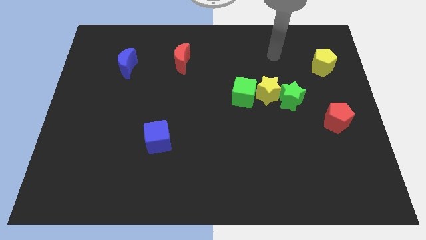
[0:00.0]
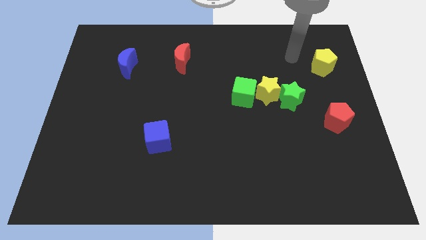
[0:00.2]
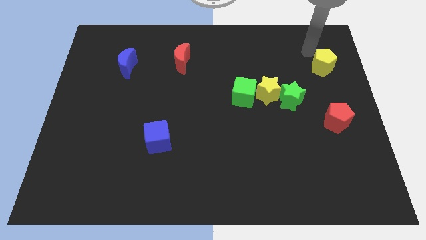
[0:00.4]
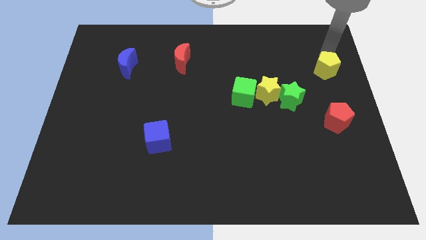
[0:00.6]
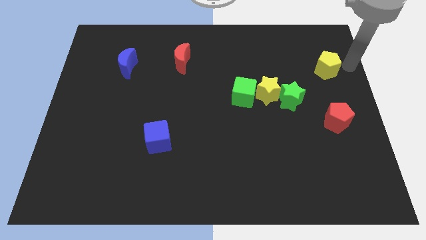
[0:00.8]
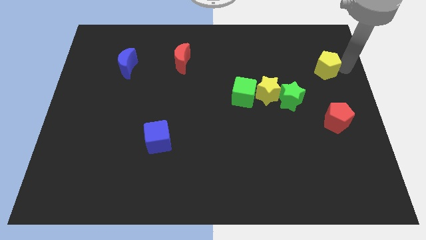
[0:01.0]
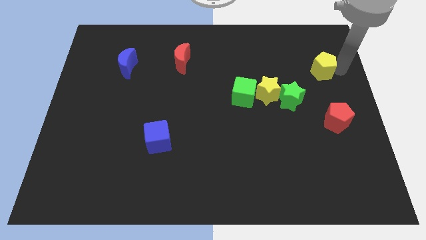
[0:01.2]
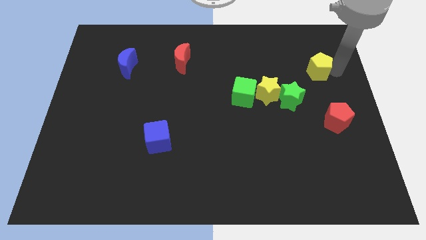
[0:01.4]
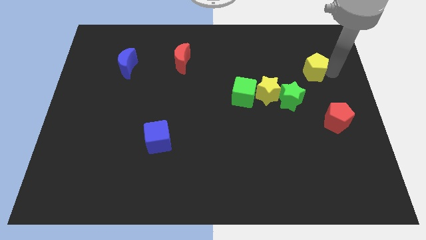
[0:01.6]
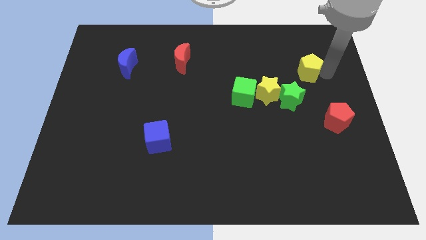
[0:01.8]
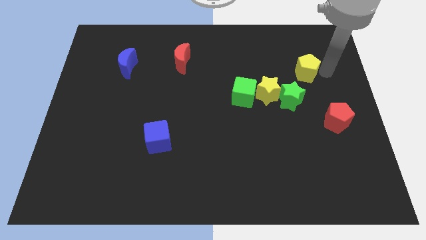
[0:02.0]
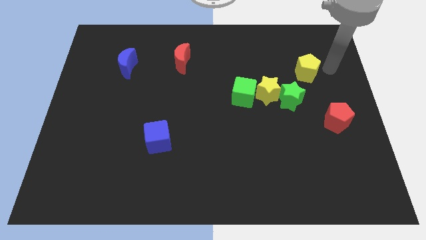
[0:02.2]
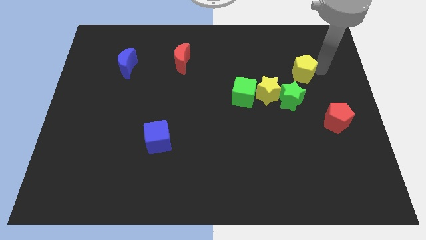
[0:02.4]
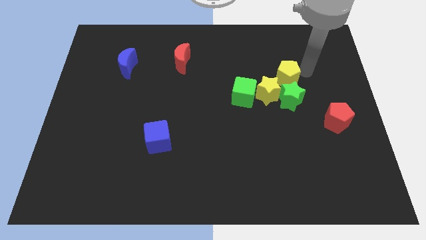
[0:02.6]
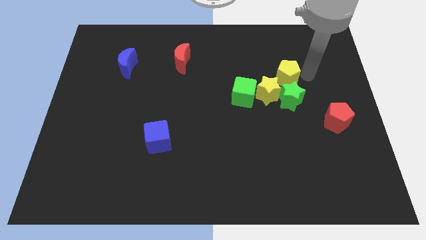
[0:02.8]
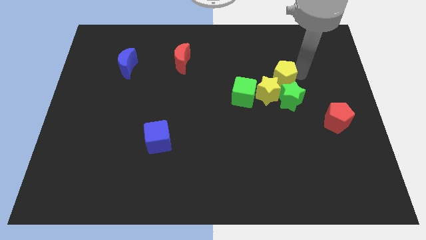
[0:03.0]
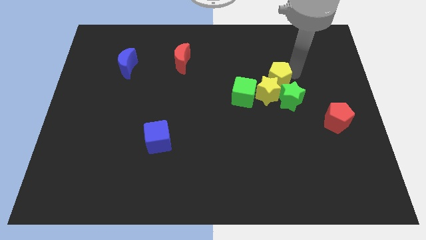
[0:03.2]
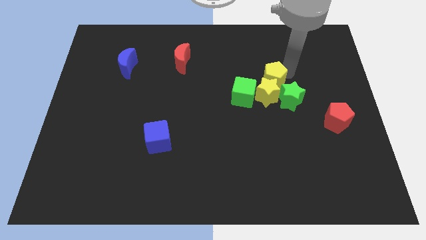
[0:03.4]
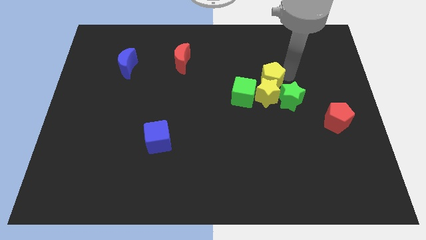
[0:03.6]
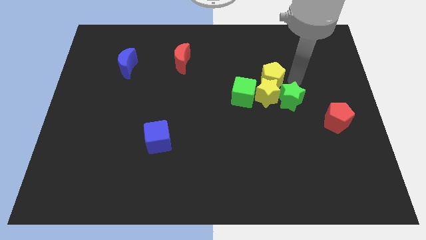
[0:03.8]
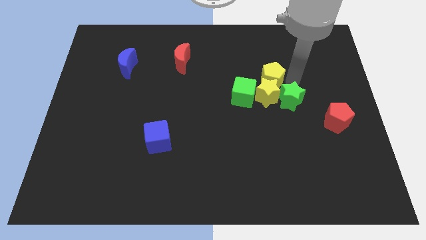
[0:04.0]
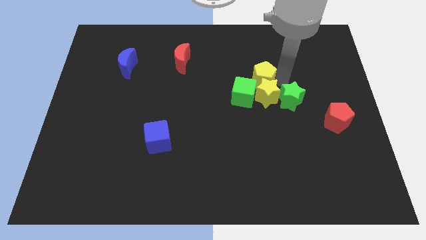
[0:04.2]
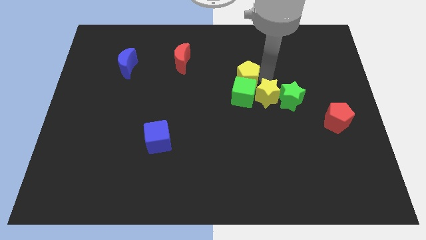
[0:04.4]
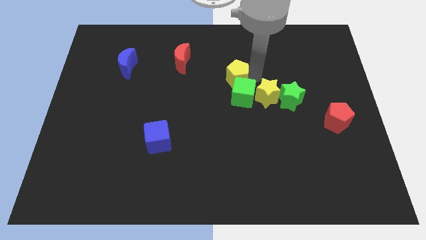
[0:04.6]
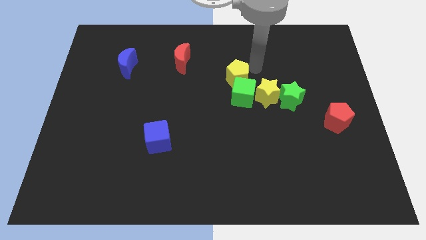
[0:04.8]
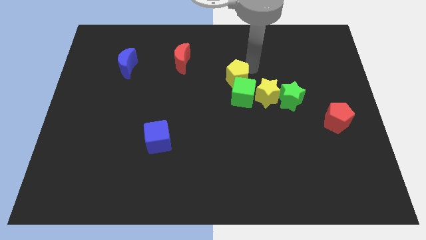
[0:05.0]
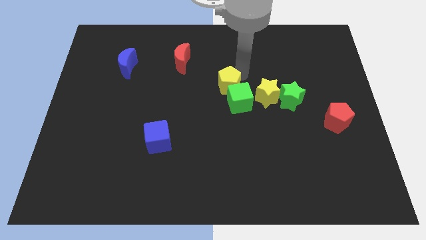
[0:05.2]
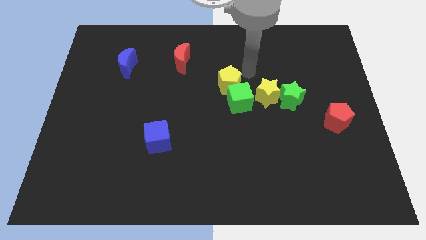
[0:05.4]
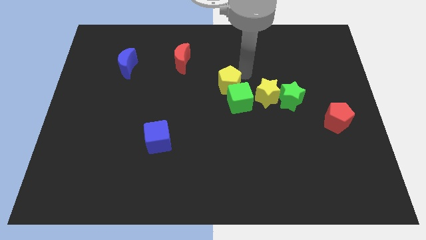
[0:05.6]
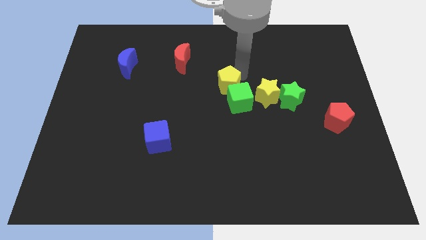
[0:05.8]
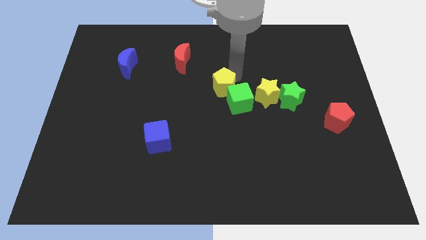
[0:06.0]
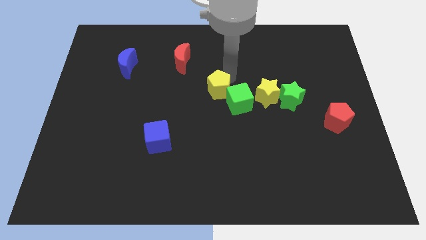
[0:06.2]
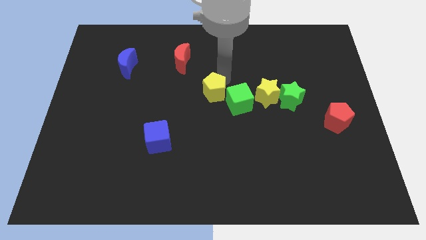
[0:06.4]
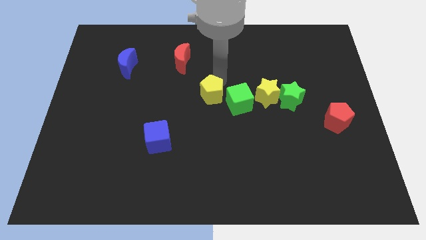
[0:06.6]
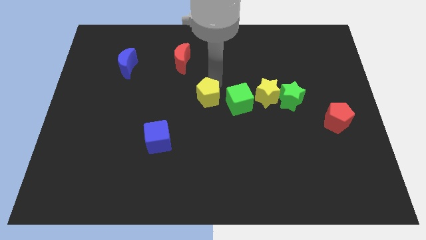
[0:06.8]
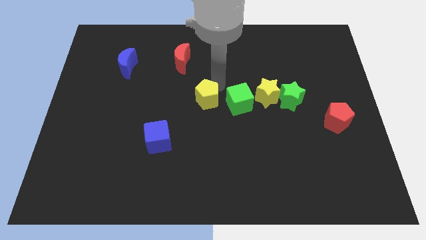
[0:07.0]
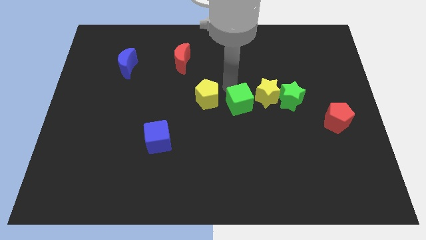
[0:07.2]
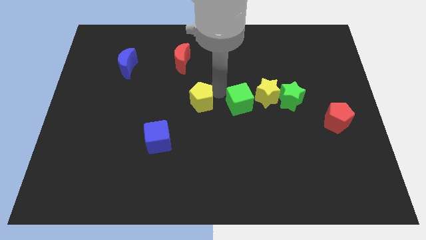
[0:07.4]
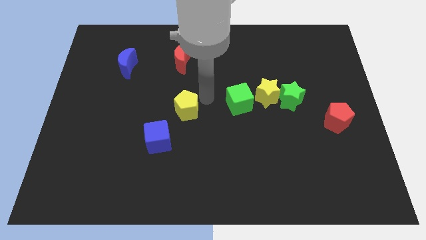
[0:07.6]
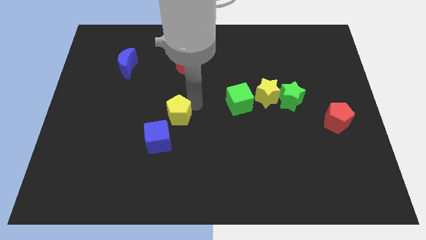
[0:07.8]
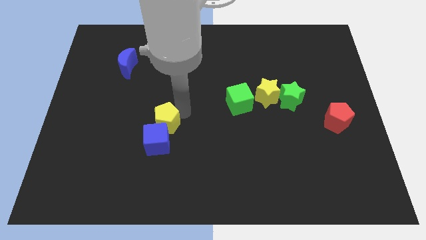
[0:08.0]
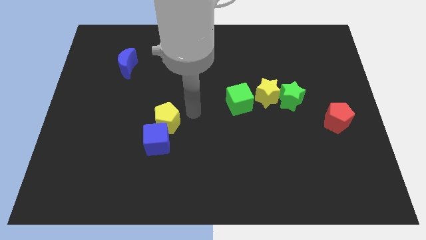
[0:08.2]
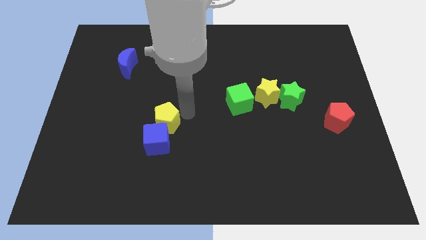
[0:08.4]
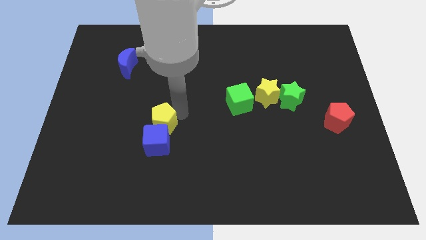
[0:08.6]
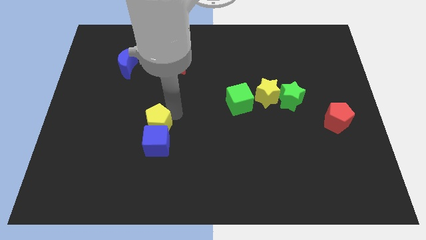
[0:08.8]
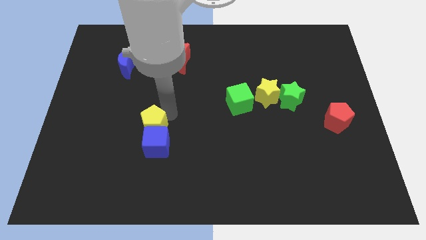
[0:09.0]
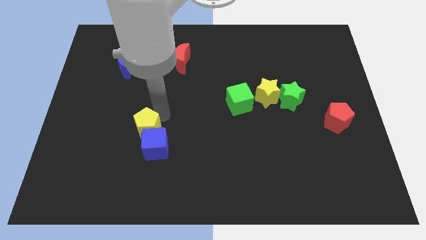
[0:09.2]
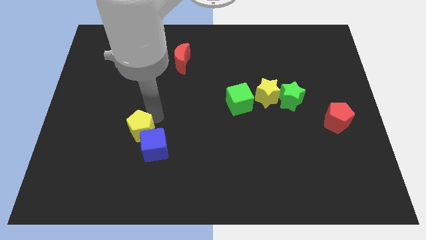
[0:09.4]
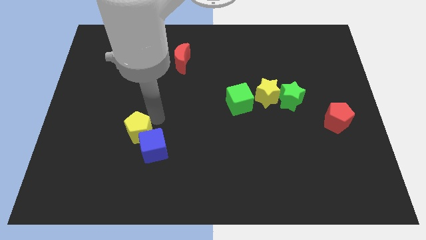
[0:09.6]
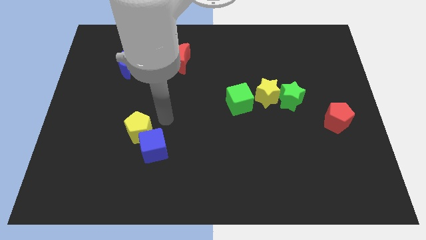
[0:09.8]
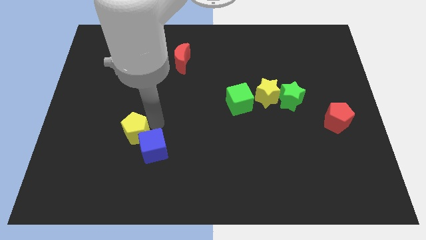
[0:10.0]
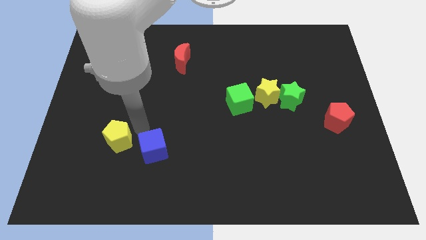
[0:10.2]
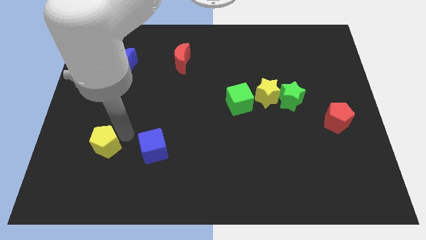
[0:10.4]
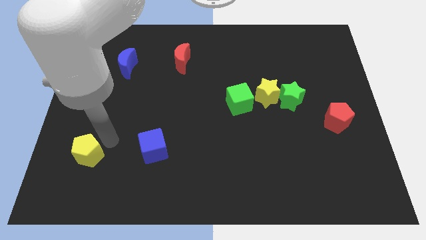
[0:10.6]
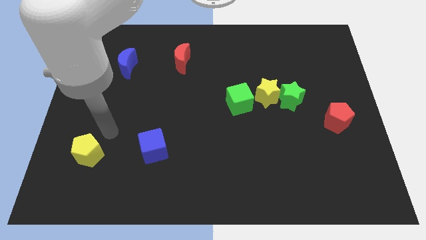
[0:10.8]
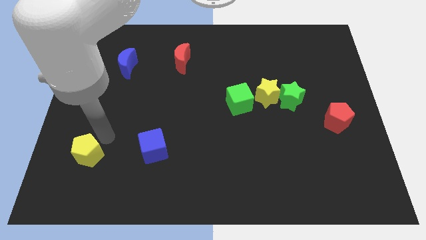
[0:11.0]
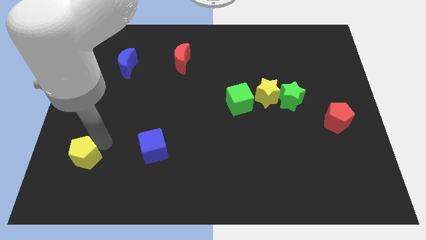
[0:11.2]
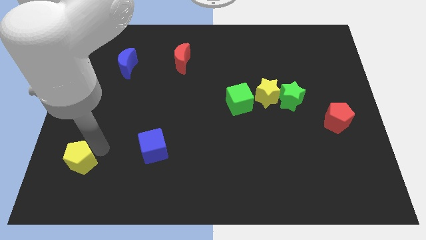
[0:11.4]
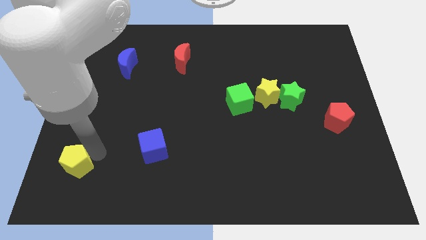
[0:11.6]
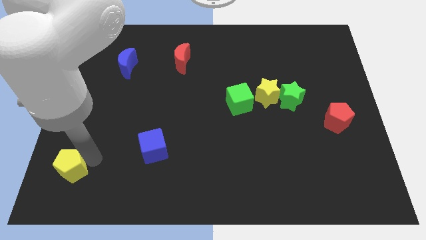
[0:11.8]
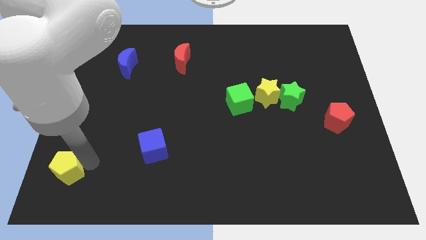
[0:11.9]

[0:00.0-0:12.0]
move the yellow pentagon to the lower left corner
